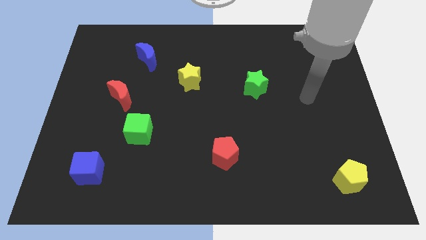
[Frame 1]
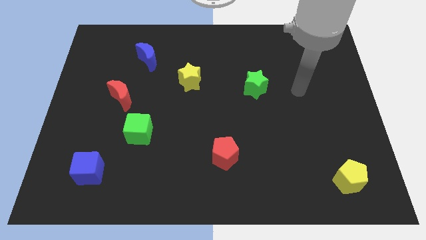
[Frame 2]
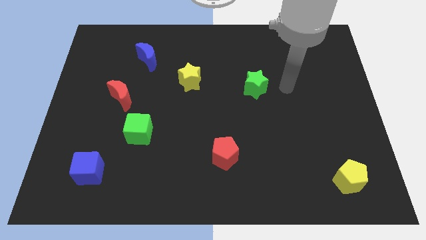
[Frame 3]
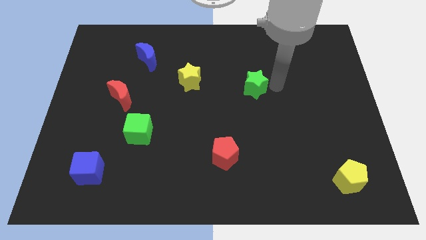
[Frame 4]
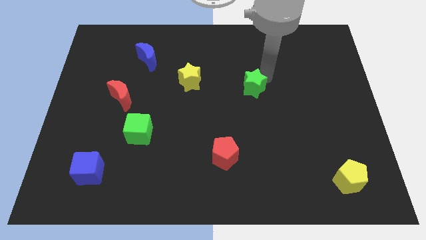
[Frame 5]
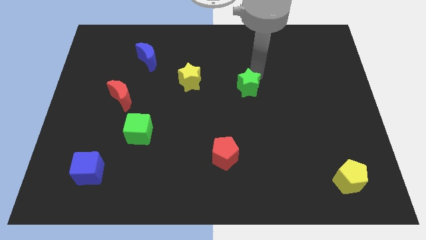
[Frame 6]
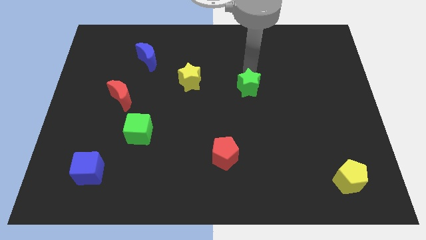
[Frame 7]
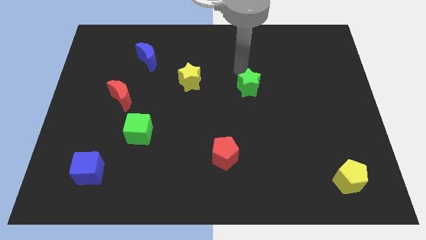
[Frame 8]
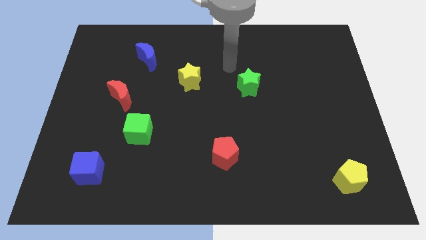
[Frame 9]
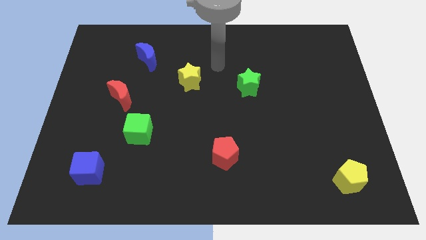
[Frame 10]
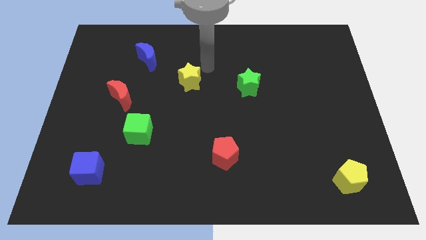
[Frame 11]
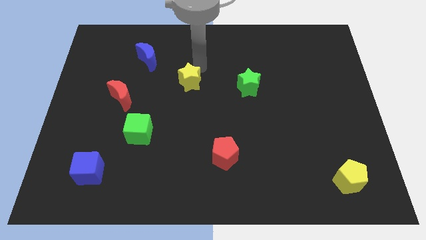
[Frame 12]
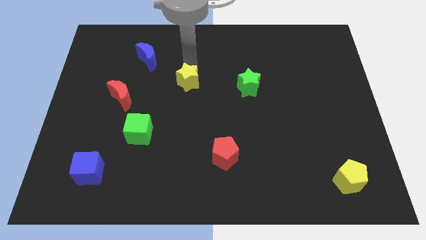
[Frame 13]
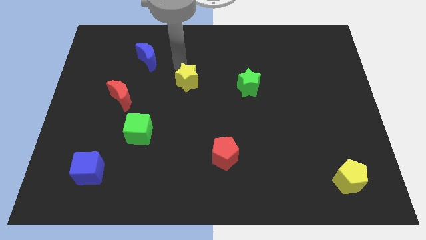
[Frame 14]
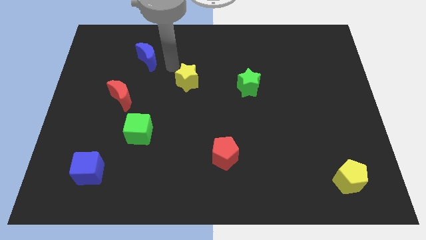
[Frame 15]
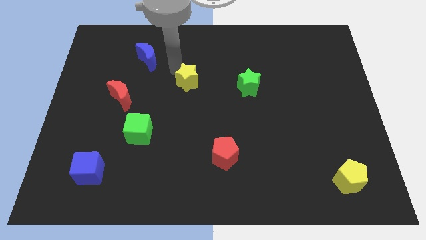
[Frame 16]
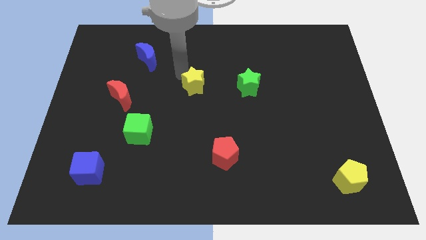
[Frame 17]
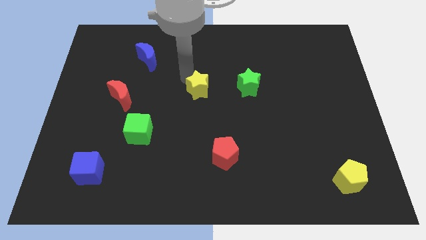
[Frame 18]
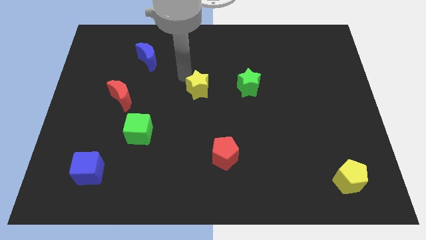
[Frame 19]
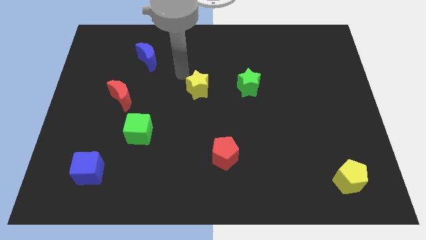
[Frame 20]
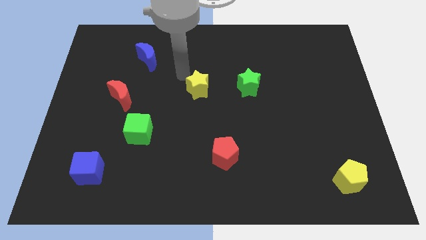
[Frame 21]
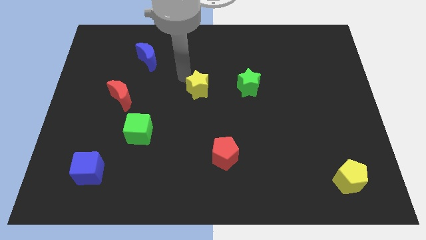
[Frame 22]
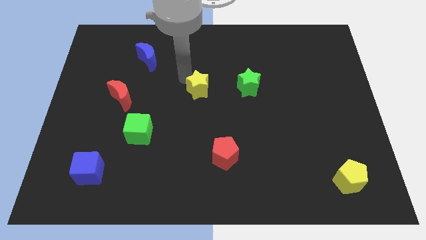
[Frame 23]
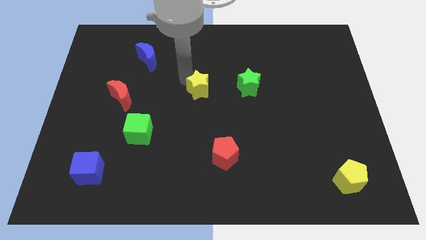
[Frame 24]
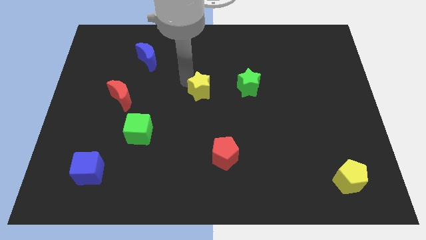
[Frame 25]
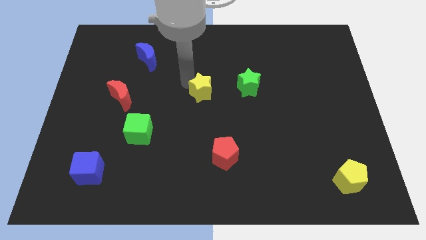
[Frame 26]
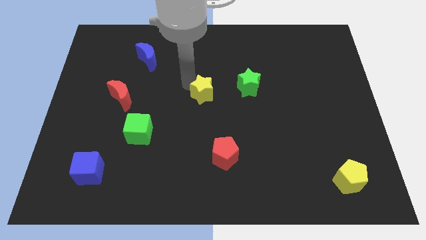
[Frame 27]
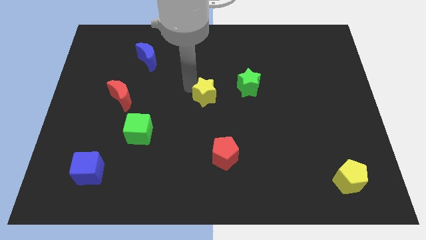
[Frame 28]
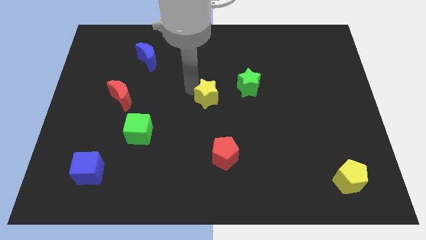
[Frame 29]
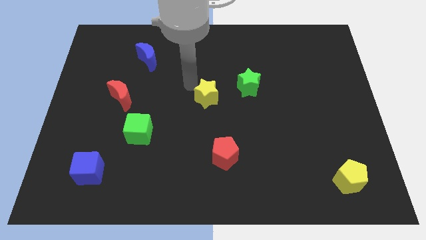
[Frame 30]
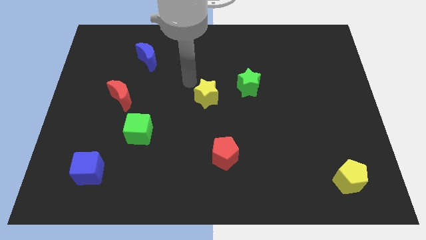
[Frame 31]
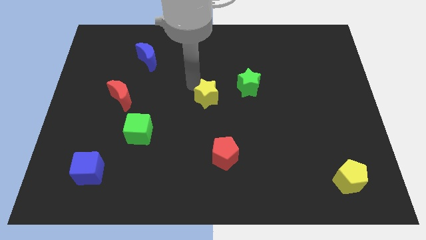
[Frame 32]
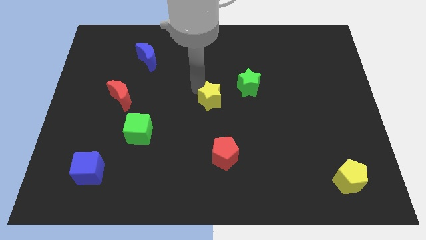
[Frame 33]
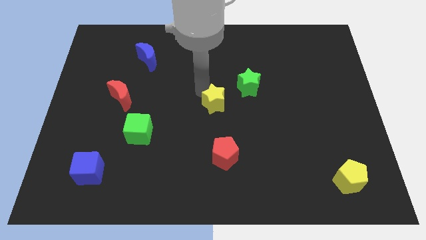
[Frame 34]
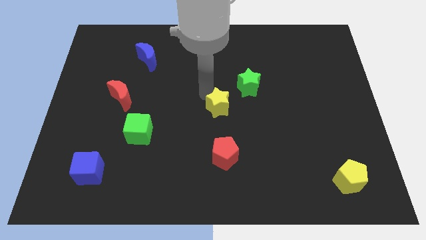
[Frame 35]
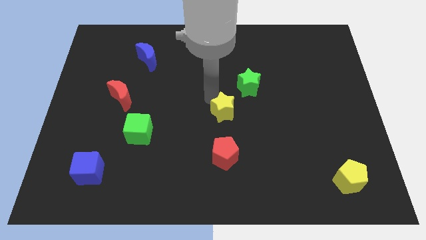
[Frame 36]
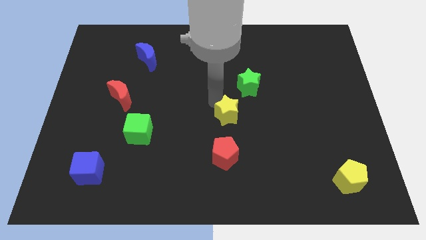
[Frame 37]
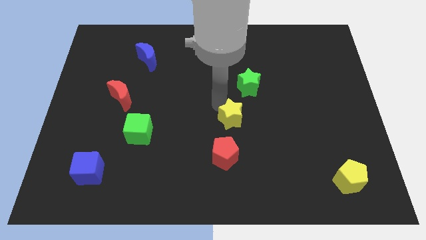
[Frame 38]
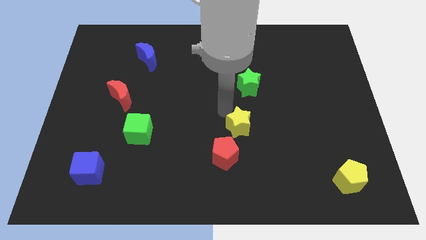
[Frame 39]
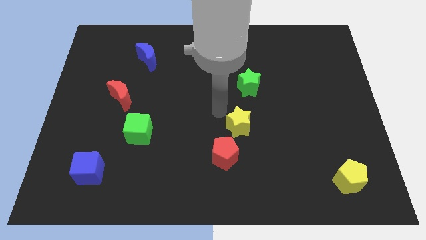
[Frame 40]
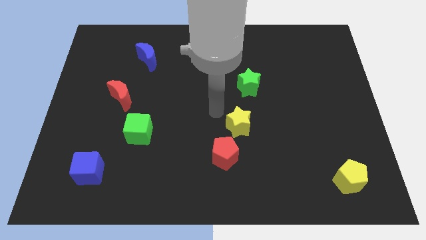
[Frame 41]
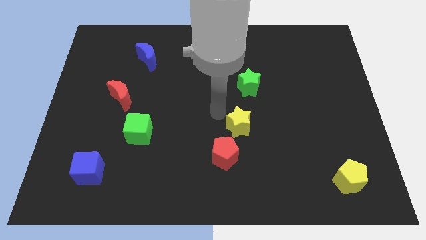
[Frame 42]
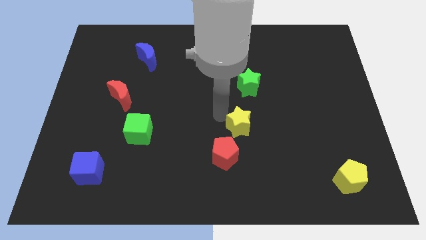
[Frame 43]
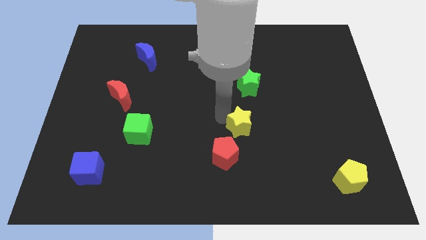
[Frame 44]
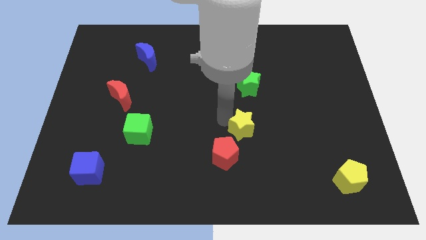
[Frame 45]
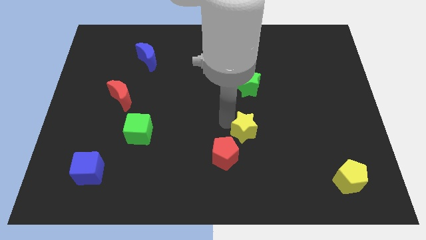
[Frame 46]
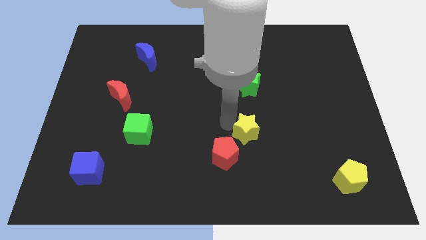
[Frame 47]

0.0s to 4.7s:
slide the yellow star down and right diagonally

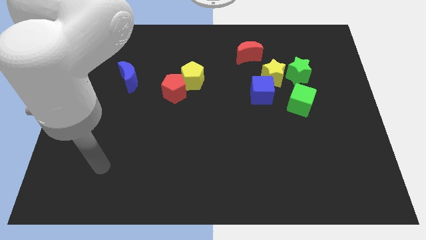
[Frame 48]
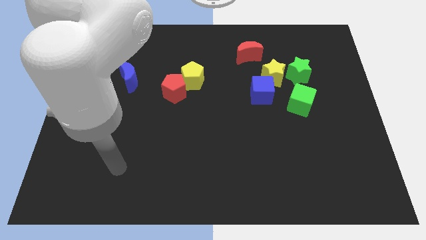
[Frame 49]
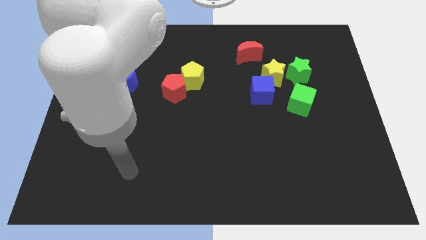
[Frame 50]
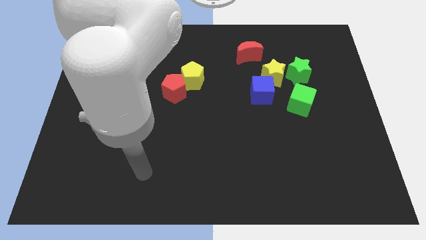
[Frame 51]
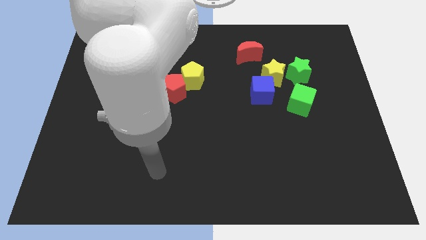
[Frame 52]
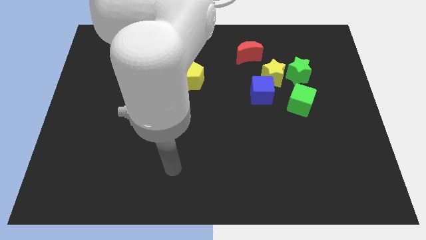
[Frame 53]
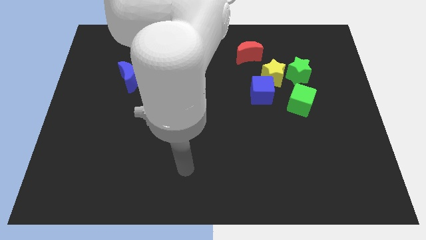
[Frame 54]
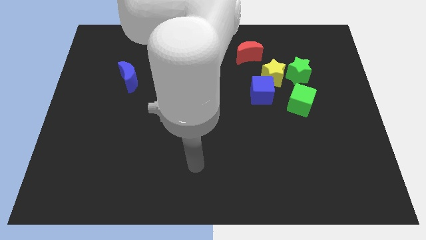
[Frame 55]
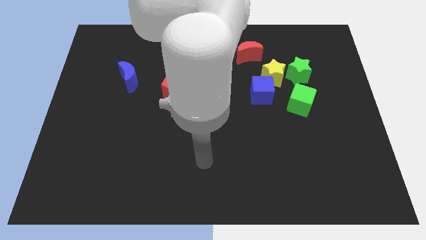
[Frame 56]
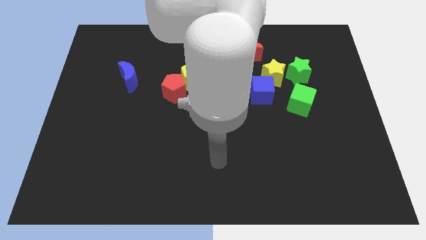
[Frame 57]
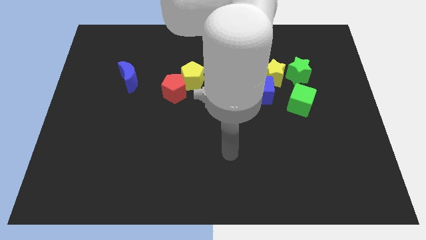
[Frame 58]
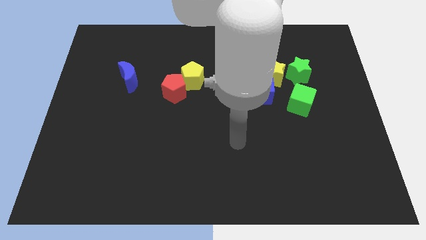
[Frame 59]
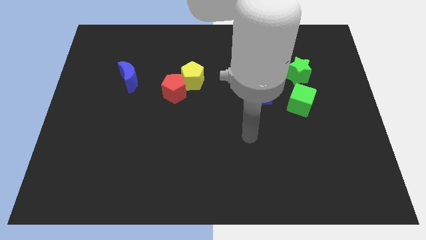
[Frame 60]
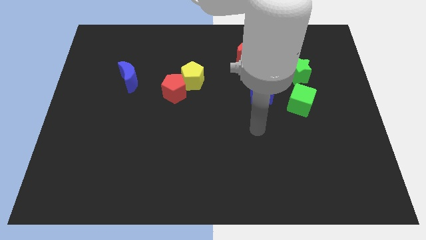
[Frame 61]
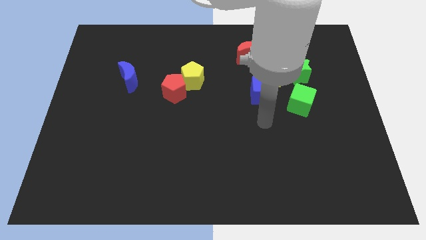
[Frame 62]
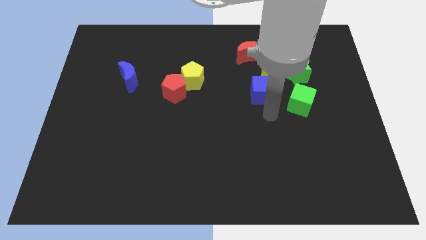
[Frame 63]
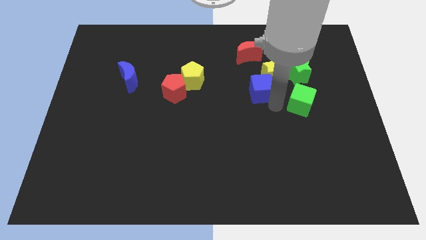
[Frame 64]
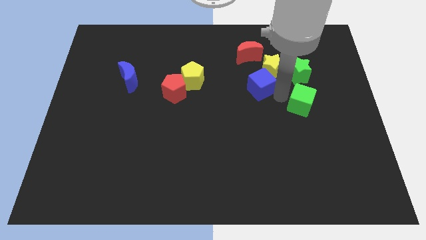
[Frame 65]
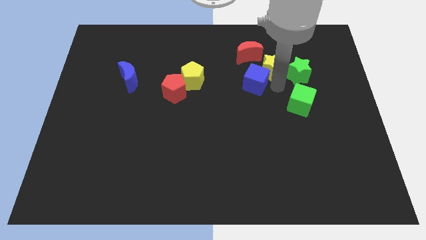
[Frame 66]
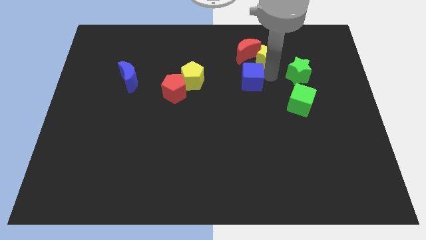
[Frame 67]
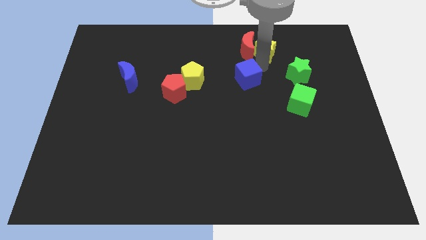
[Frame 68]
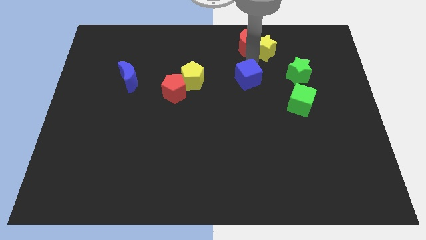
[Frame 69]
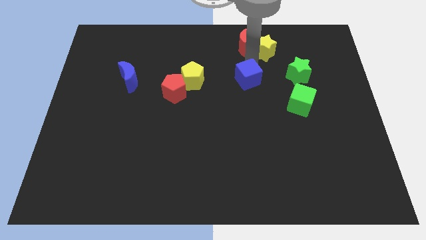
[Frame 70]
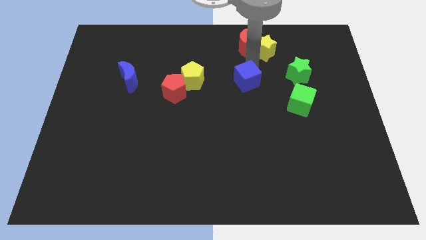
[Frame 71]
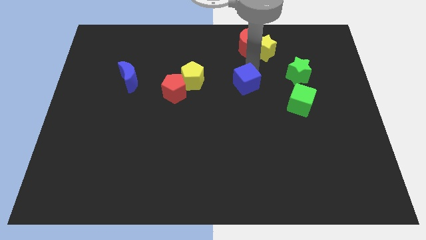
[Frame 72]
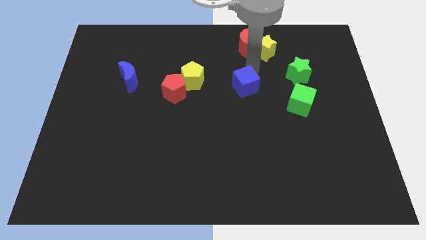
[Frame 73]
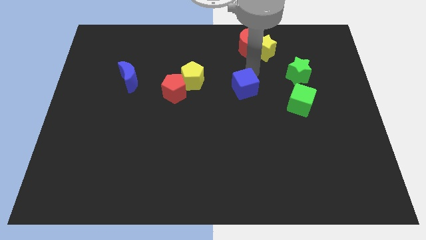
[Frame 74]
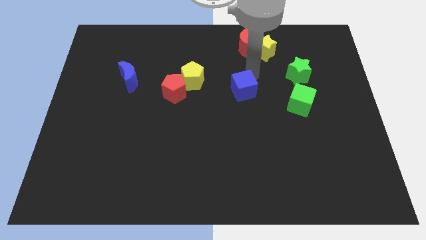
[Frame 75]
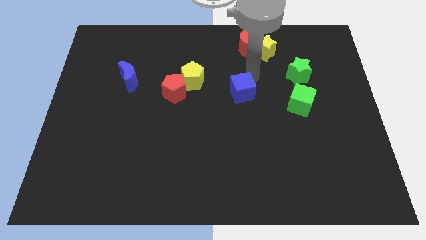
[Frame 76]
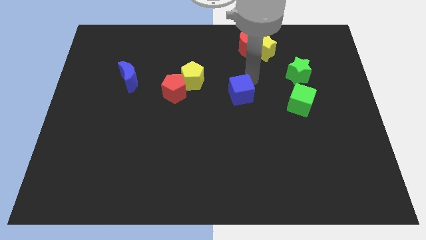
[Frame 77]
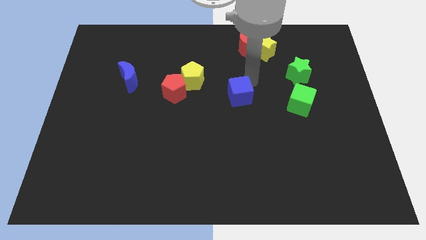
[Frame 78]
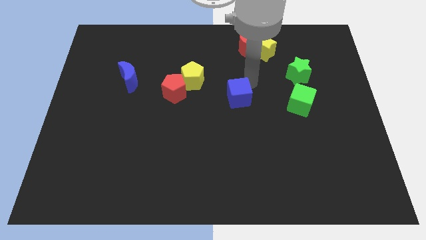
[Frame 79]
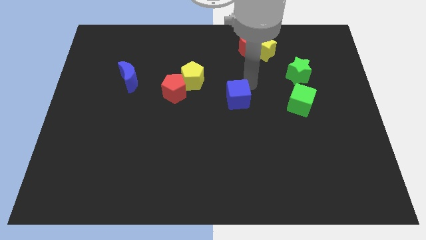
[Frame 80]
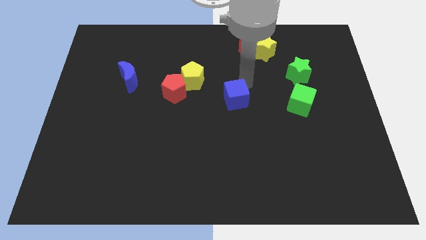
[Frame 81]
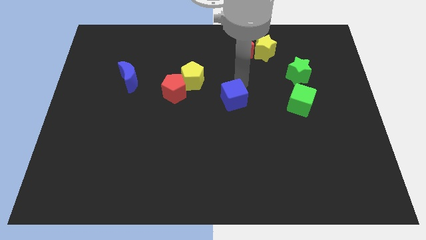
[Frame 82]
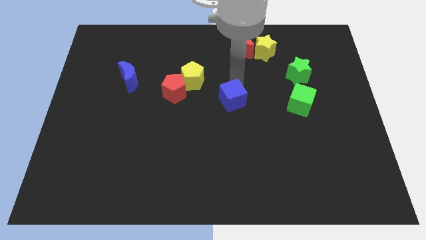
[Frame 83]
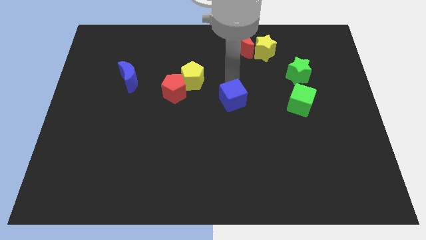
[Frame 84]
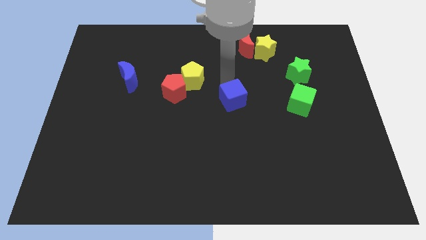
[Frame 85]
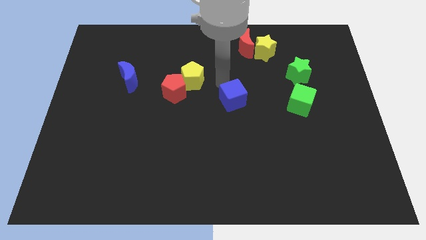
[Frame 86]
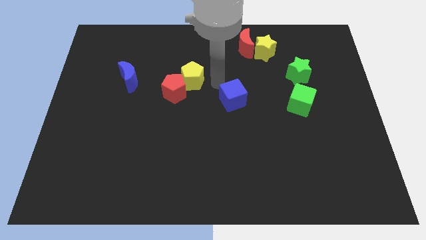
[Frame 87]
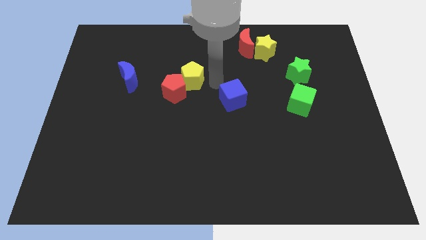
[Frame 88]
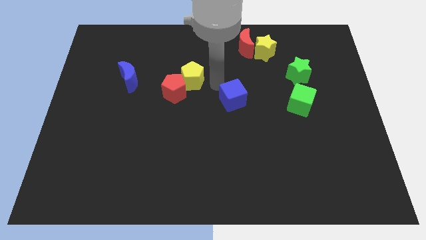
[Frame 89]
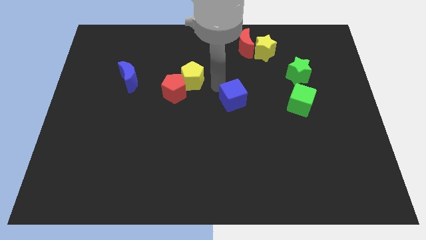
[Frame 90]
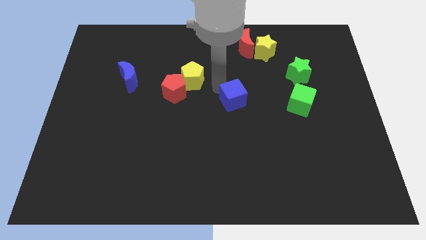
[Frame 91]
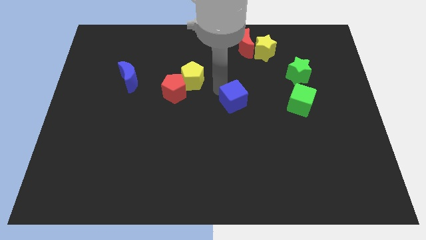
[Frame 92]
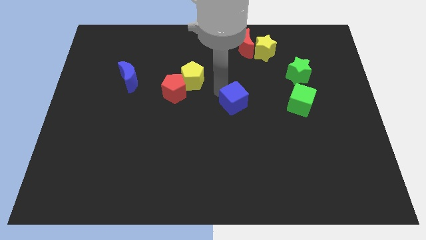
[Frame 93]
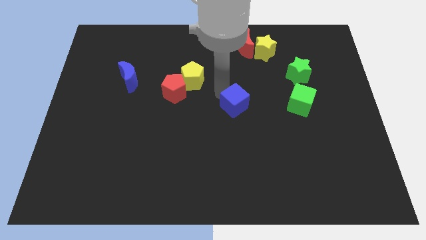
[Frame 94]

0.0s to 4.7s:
slightly slide the blue cube downwards and to the left
